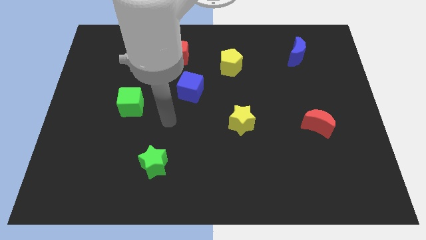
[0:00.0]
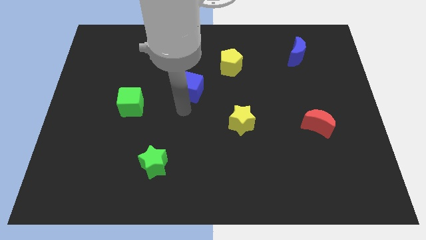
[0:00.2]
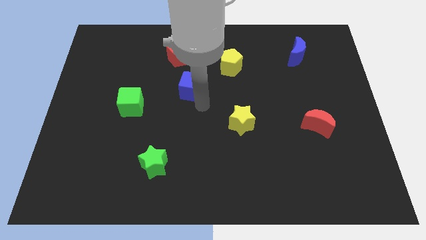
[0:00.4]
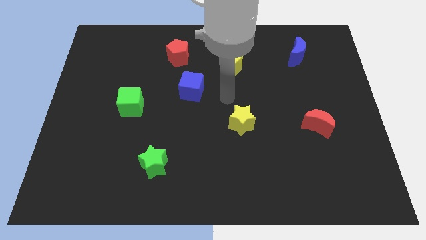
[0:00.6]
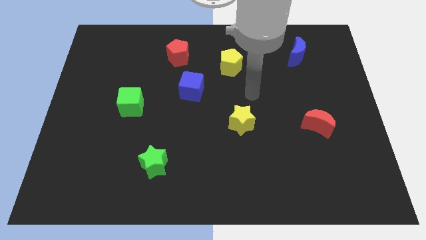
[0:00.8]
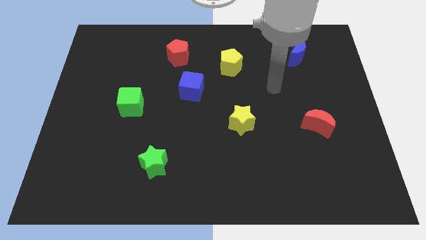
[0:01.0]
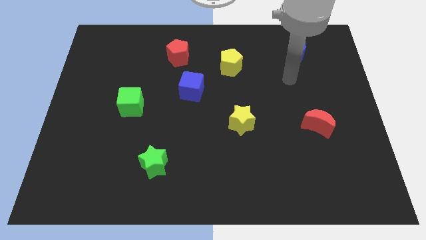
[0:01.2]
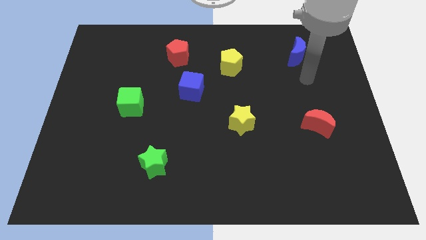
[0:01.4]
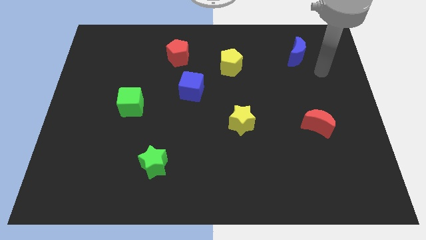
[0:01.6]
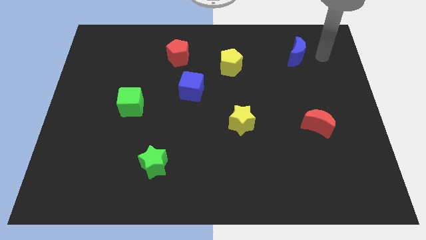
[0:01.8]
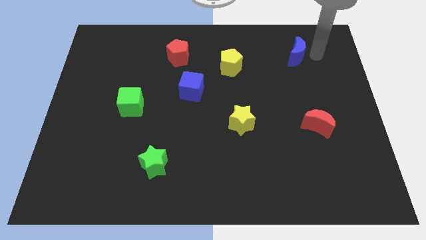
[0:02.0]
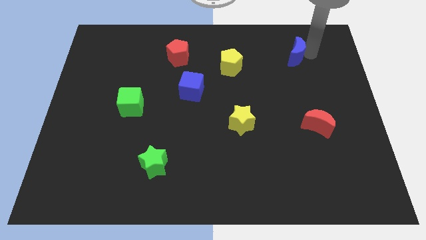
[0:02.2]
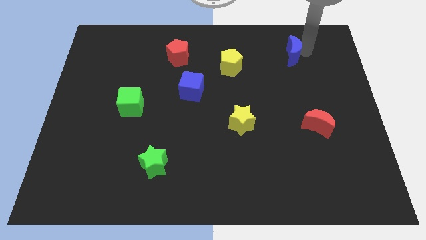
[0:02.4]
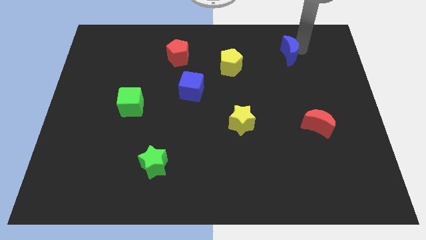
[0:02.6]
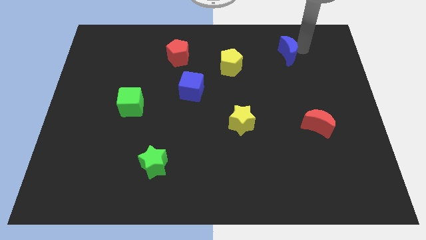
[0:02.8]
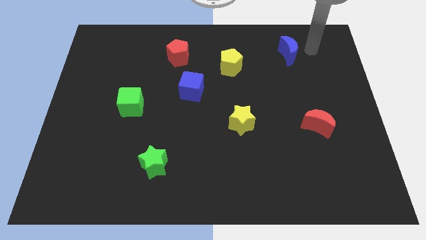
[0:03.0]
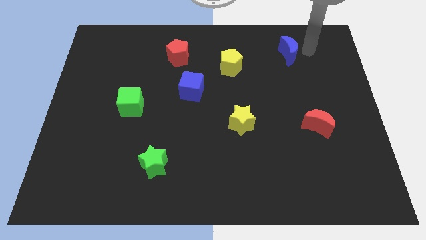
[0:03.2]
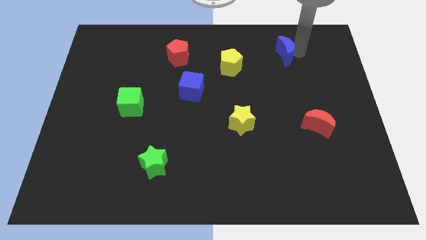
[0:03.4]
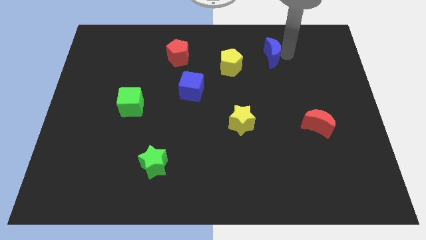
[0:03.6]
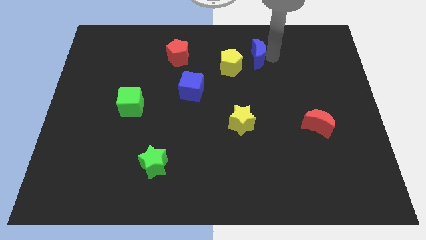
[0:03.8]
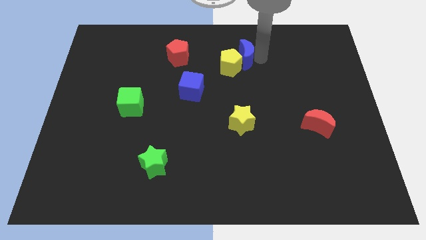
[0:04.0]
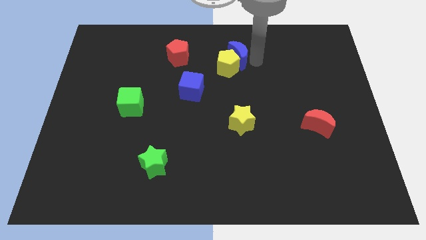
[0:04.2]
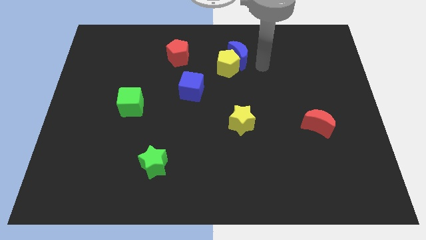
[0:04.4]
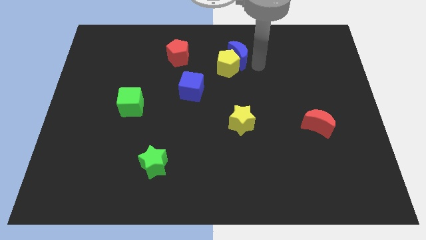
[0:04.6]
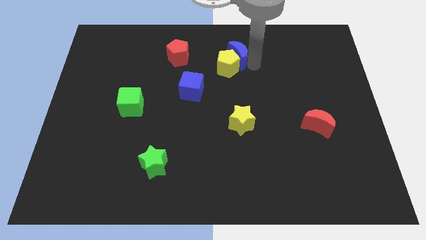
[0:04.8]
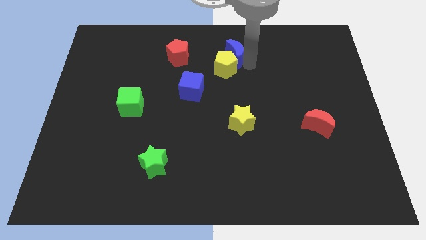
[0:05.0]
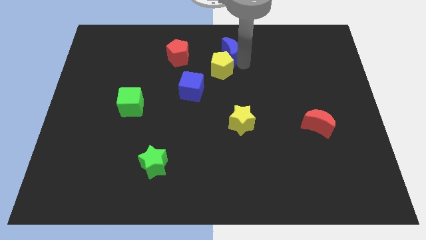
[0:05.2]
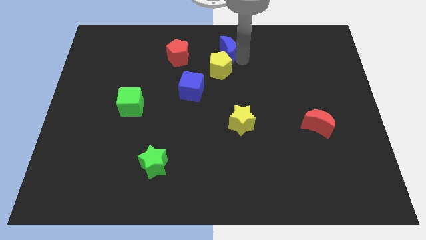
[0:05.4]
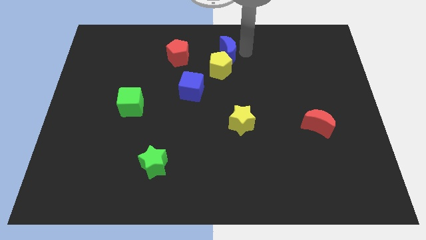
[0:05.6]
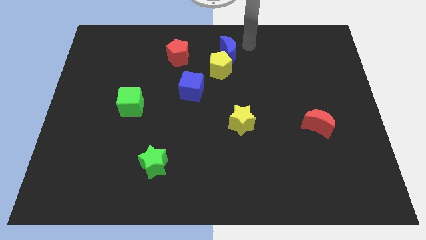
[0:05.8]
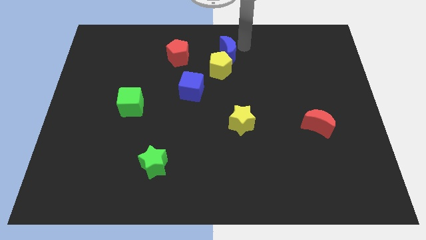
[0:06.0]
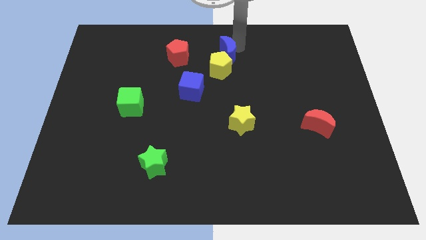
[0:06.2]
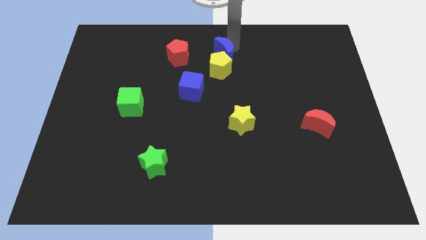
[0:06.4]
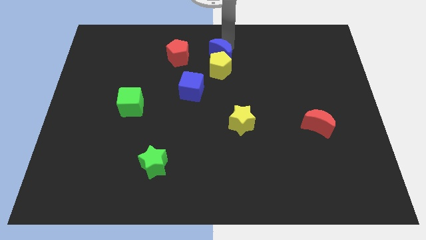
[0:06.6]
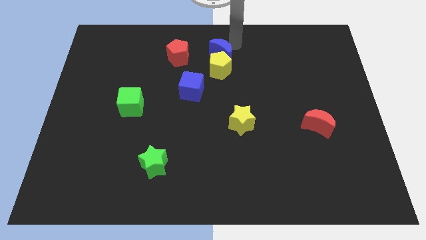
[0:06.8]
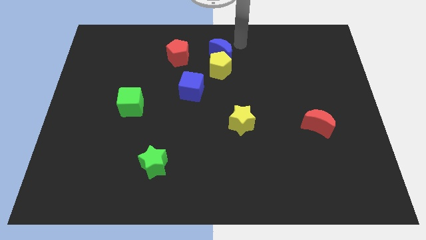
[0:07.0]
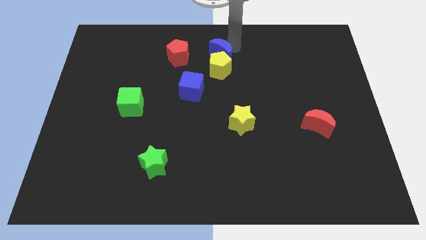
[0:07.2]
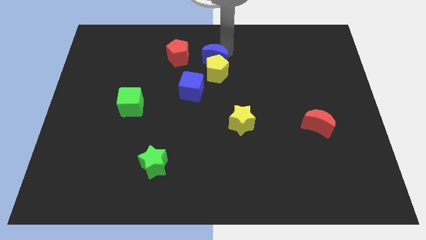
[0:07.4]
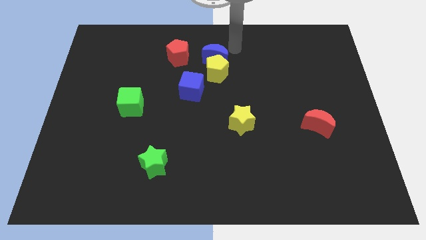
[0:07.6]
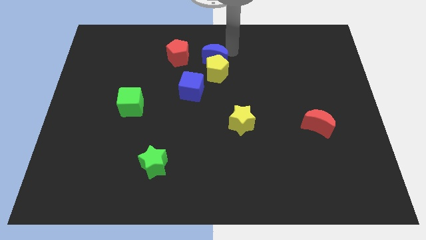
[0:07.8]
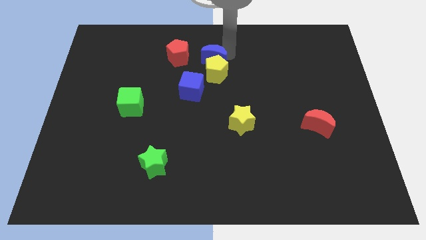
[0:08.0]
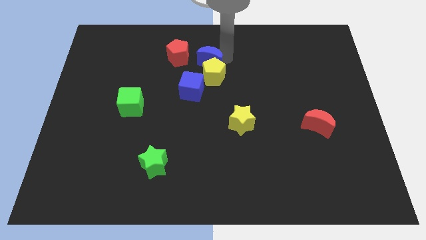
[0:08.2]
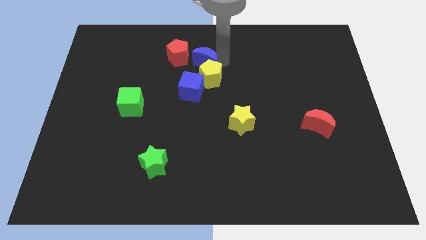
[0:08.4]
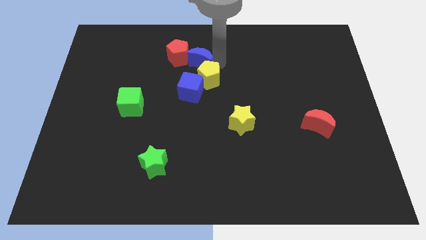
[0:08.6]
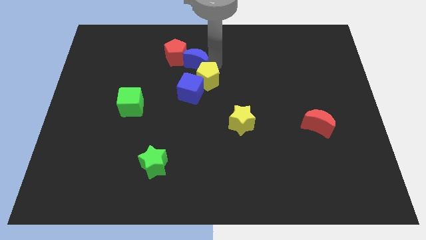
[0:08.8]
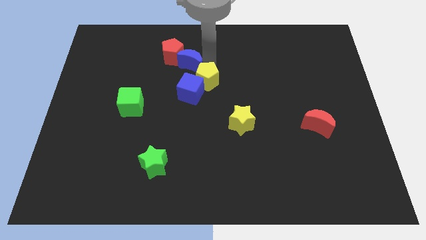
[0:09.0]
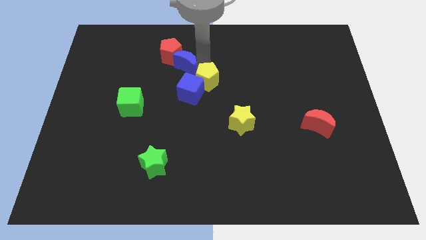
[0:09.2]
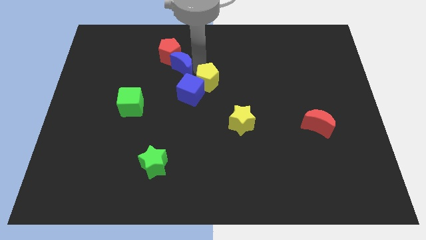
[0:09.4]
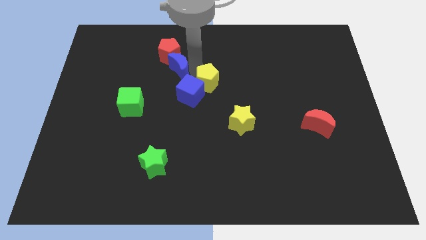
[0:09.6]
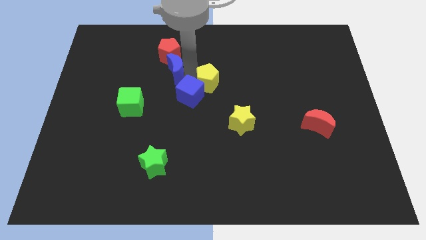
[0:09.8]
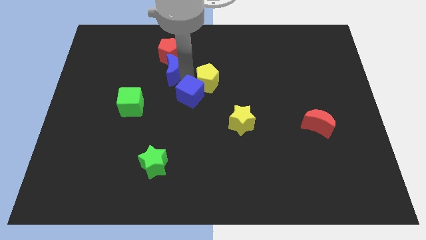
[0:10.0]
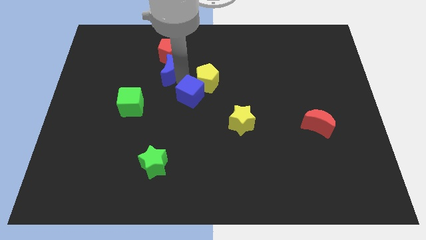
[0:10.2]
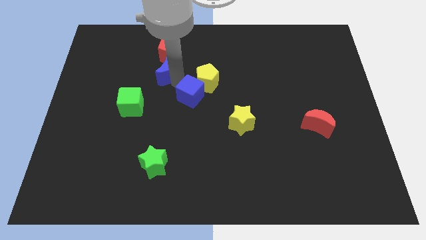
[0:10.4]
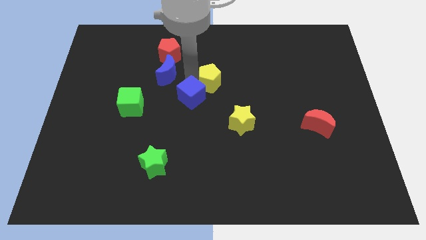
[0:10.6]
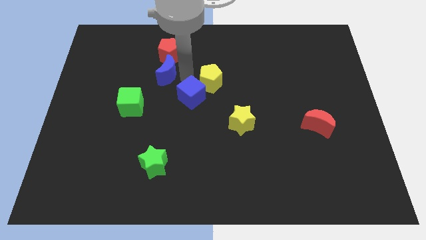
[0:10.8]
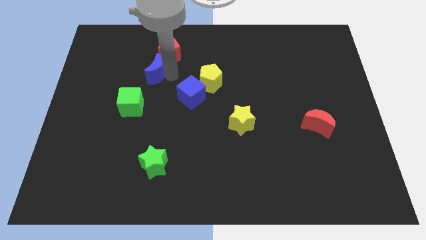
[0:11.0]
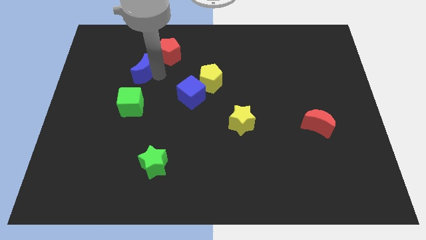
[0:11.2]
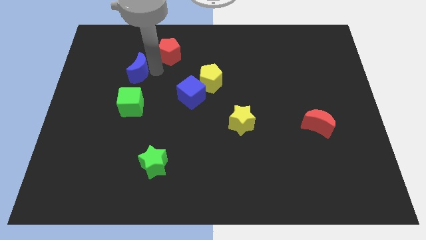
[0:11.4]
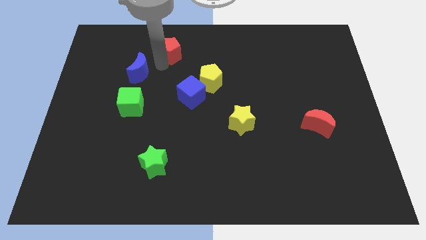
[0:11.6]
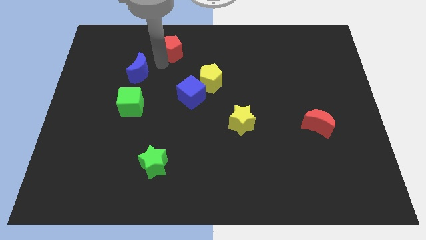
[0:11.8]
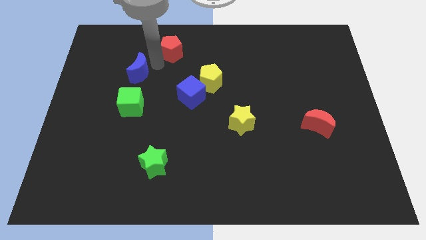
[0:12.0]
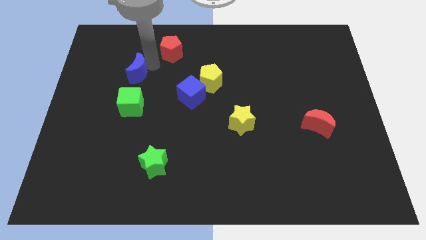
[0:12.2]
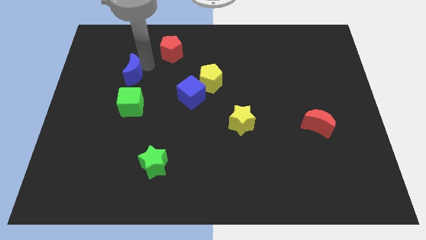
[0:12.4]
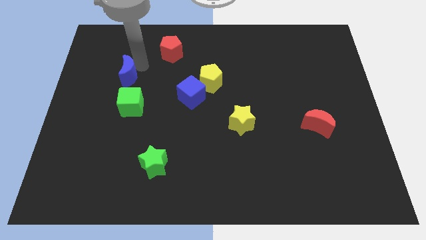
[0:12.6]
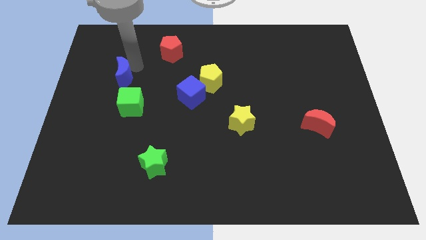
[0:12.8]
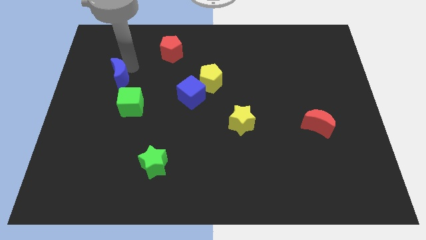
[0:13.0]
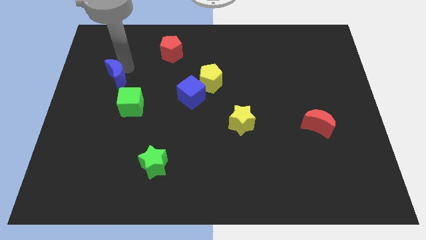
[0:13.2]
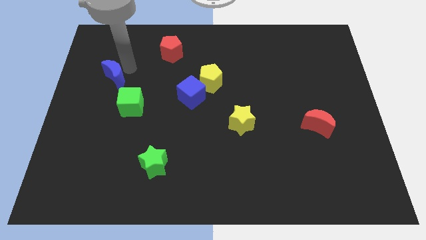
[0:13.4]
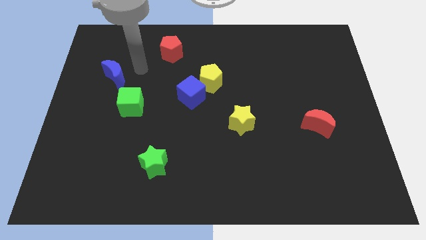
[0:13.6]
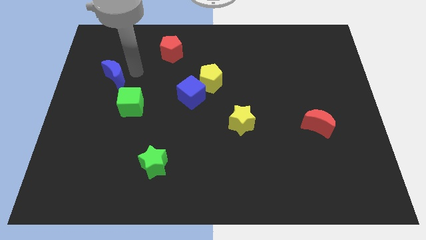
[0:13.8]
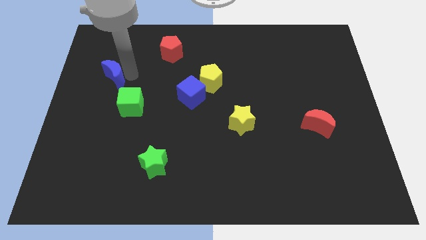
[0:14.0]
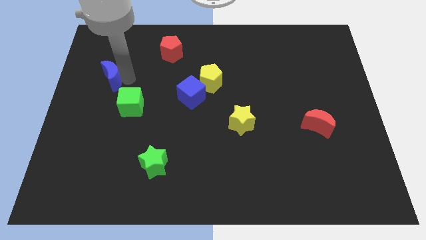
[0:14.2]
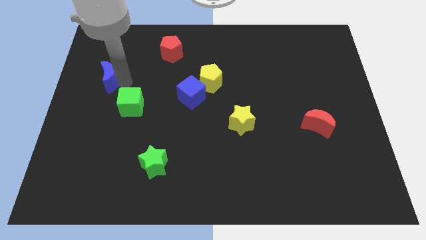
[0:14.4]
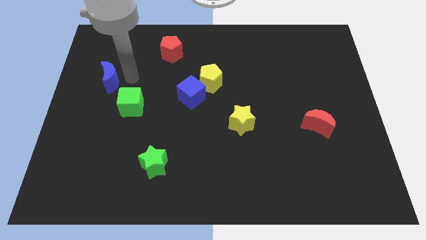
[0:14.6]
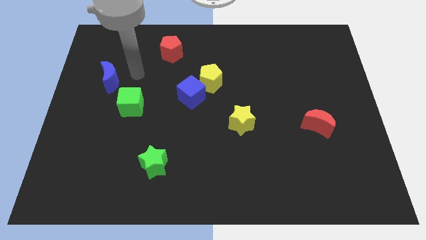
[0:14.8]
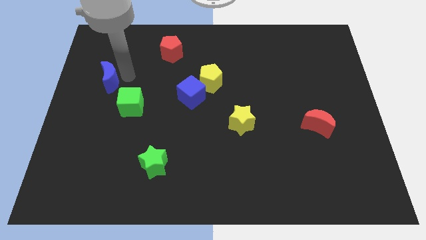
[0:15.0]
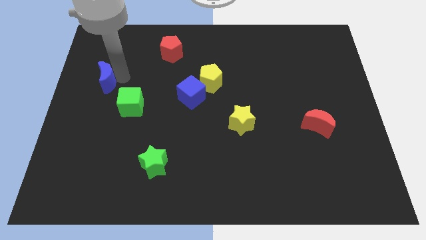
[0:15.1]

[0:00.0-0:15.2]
move the blue moon to the left side of the board
